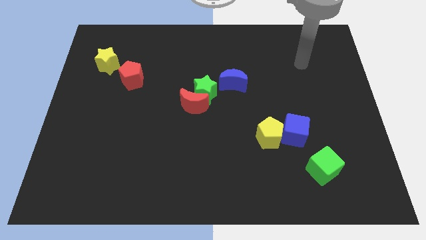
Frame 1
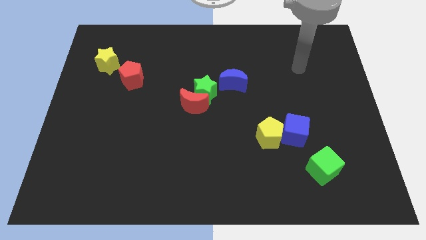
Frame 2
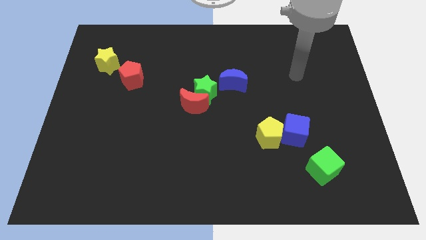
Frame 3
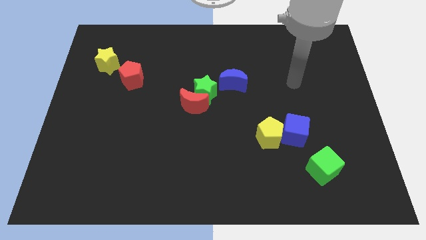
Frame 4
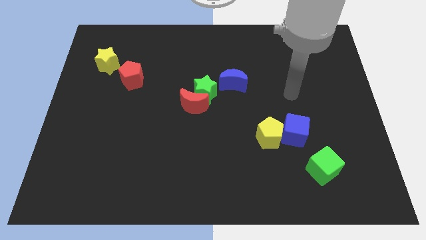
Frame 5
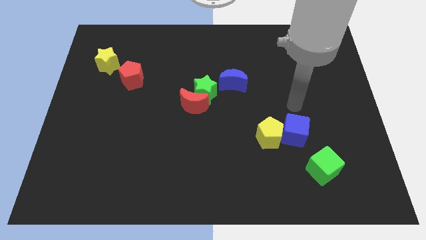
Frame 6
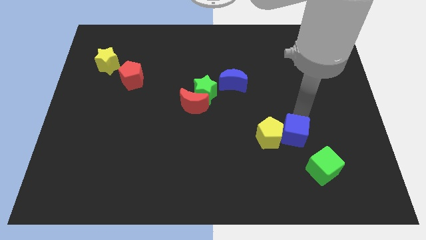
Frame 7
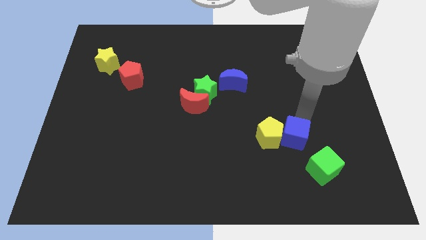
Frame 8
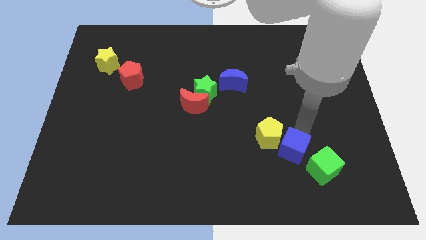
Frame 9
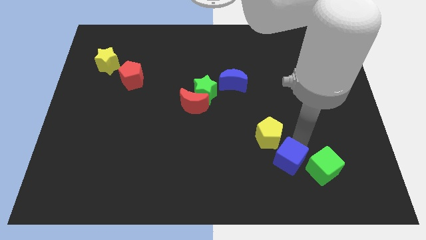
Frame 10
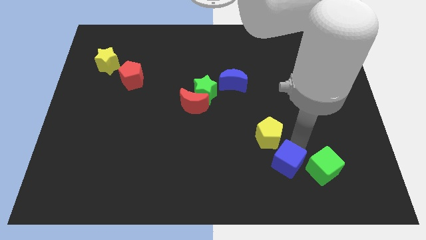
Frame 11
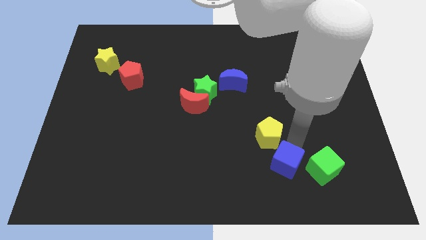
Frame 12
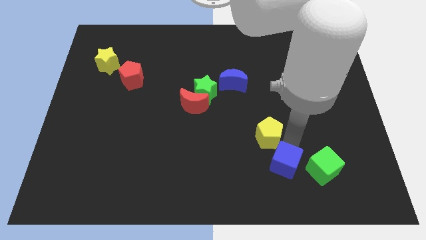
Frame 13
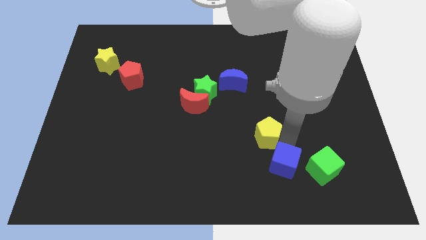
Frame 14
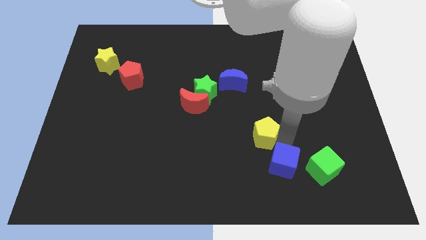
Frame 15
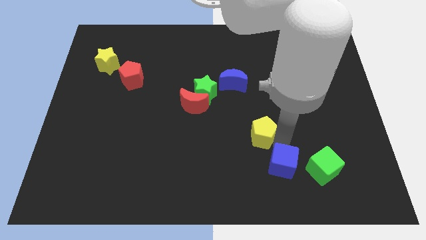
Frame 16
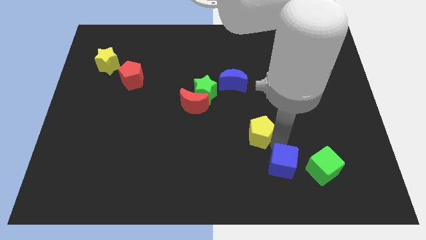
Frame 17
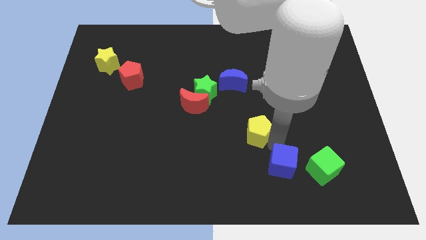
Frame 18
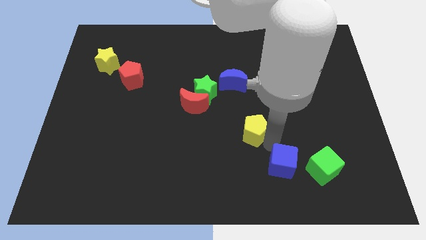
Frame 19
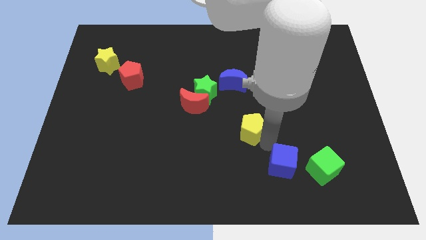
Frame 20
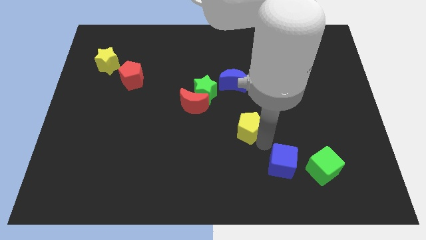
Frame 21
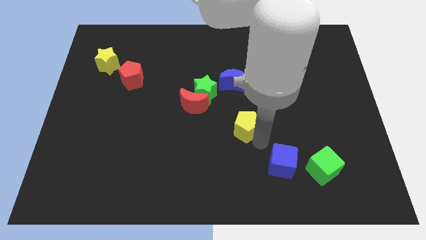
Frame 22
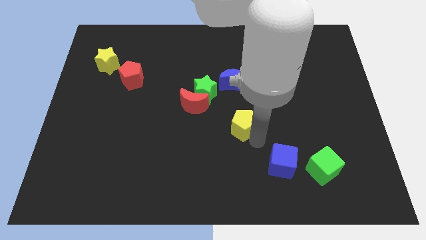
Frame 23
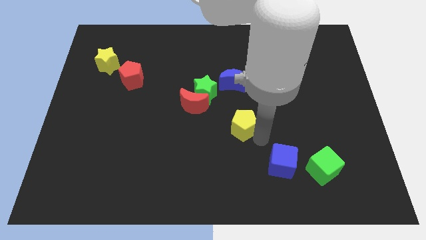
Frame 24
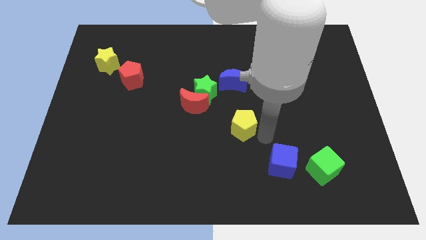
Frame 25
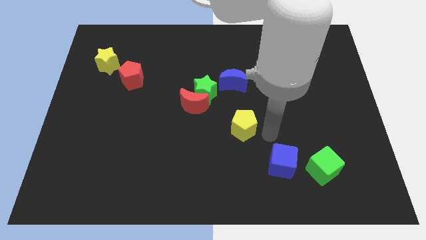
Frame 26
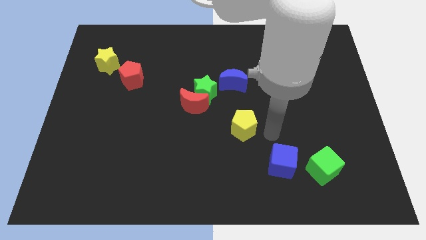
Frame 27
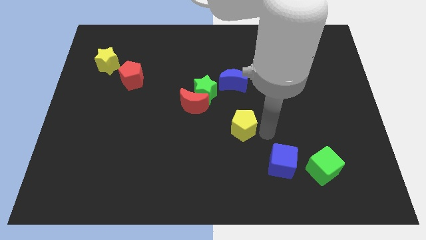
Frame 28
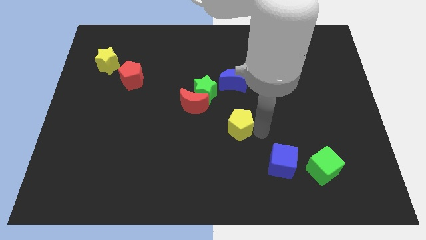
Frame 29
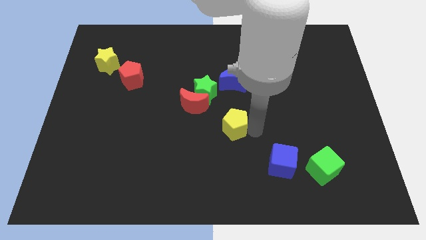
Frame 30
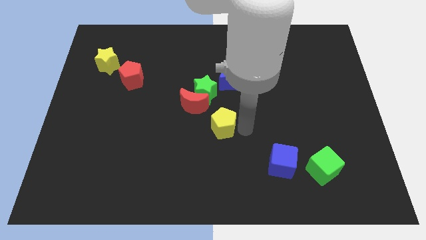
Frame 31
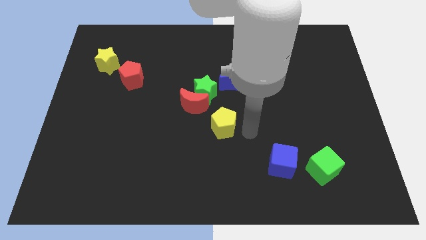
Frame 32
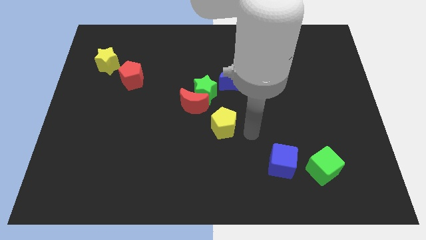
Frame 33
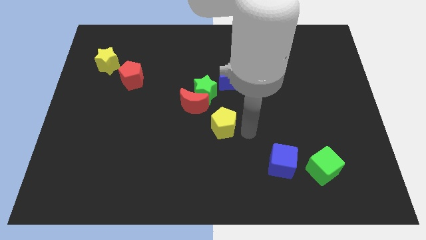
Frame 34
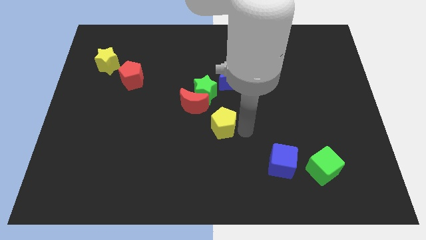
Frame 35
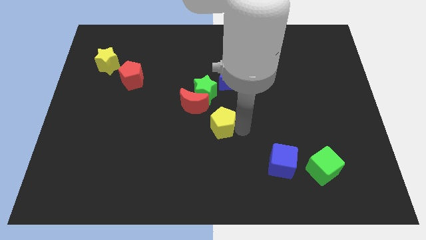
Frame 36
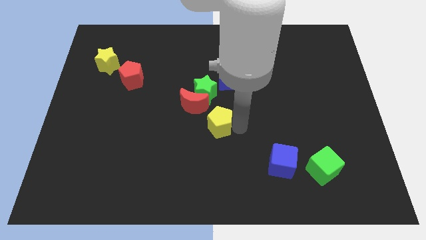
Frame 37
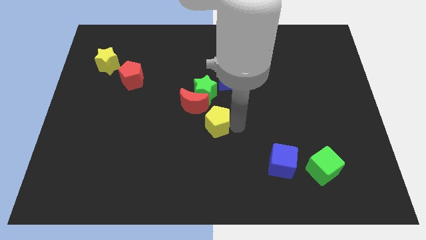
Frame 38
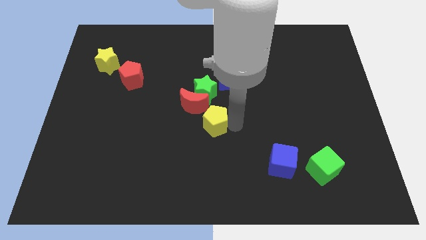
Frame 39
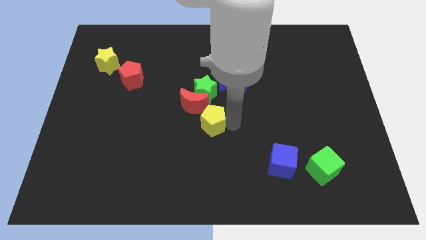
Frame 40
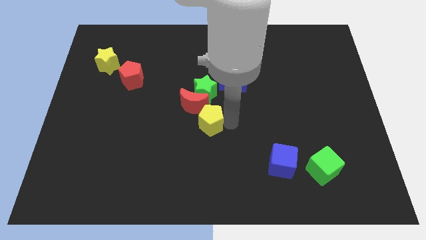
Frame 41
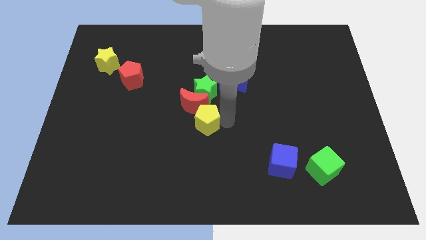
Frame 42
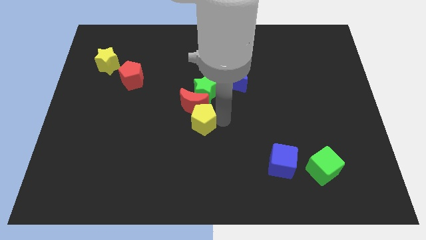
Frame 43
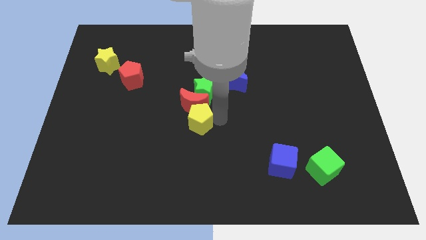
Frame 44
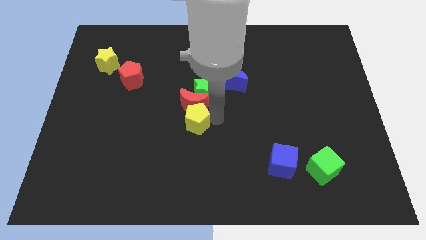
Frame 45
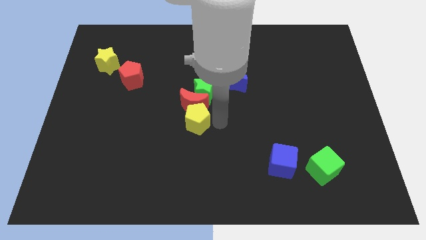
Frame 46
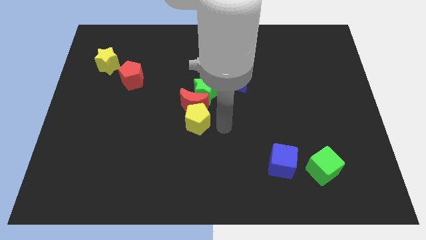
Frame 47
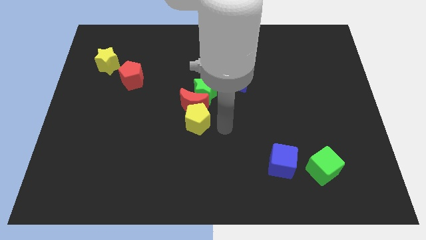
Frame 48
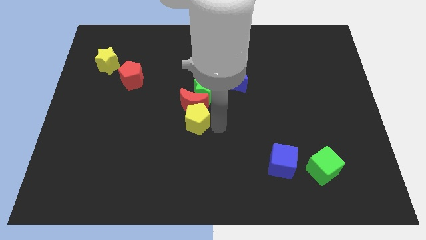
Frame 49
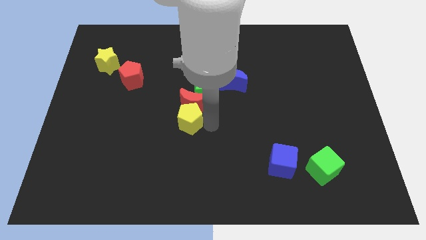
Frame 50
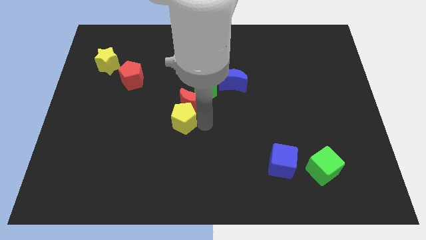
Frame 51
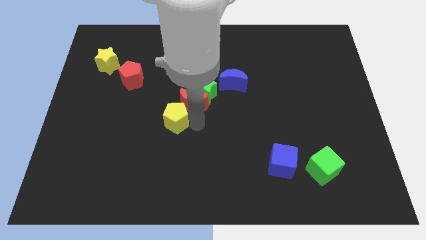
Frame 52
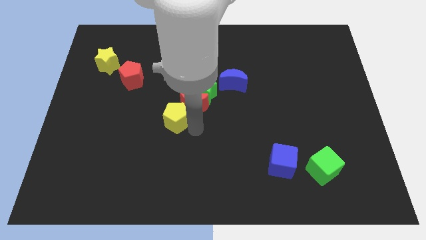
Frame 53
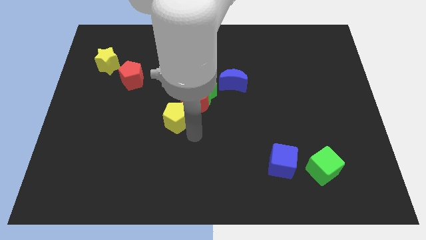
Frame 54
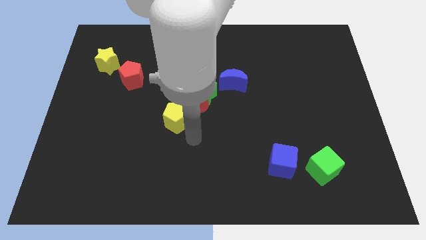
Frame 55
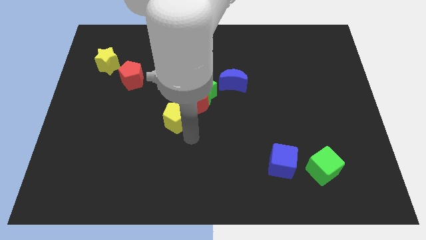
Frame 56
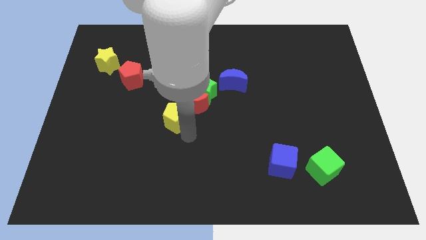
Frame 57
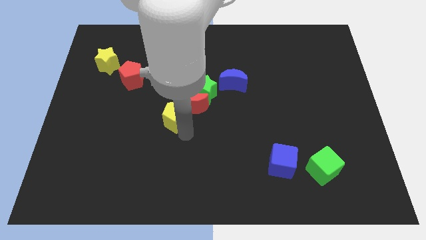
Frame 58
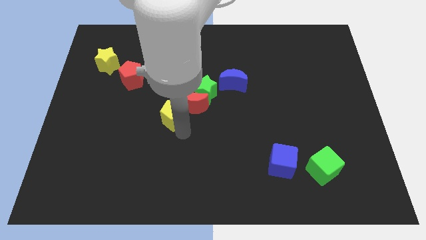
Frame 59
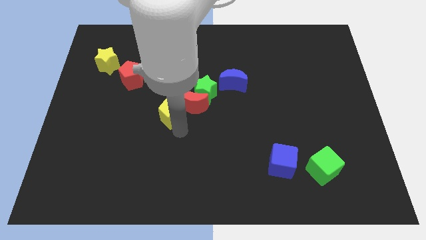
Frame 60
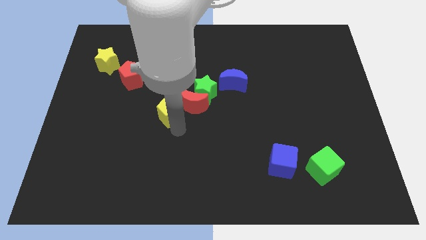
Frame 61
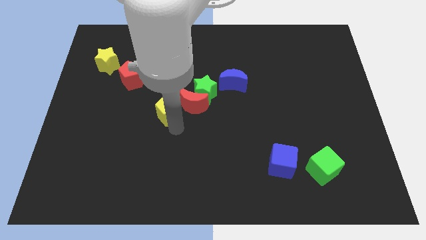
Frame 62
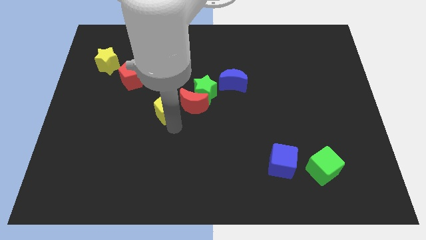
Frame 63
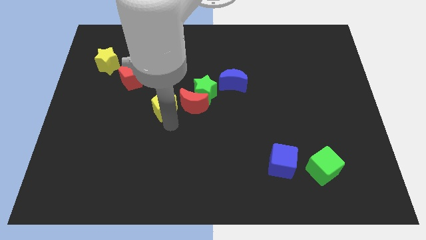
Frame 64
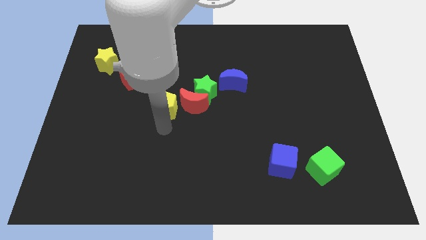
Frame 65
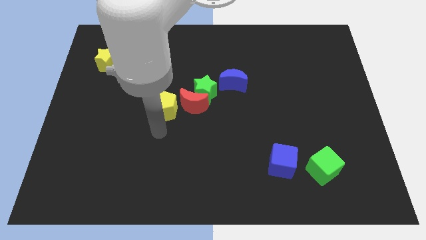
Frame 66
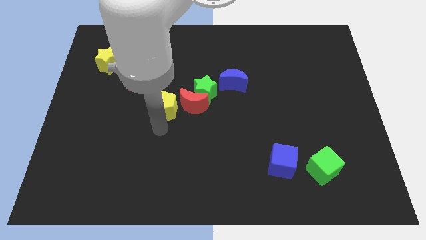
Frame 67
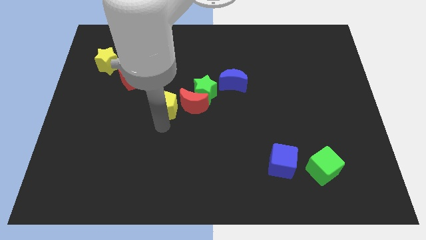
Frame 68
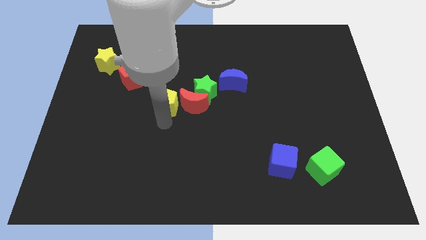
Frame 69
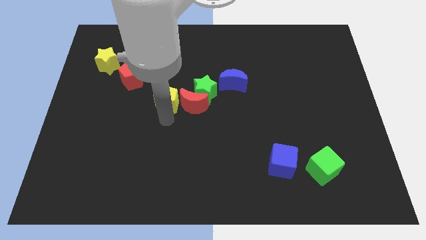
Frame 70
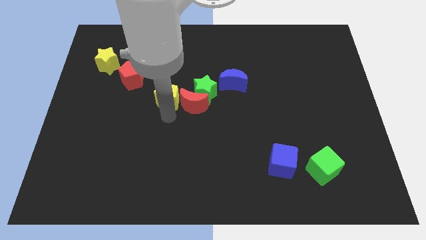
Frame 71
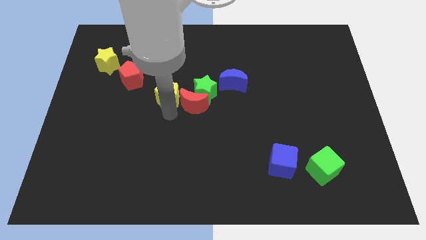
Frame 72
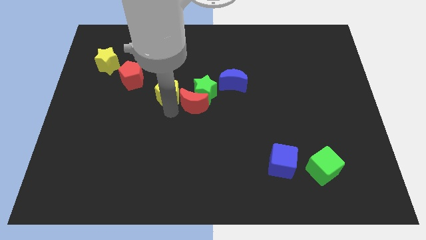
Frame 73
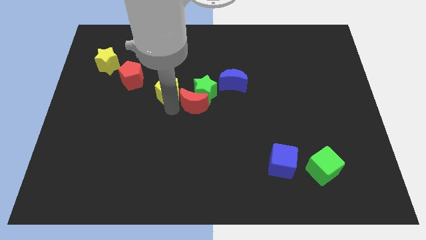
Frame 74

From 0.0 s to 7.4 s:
move the yellow pentagon to the right side of the red pentagon
